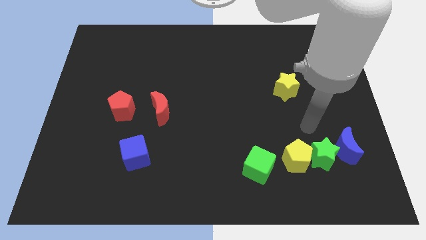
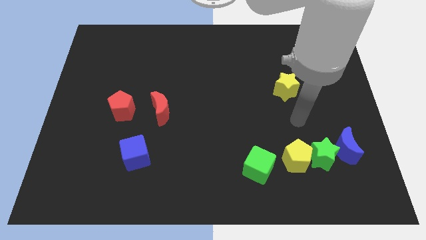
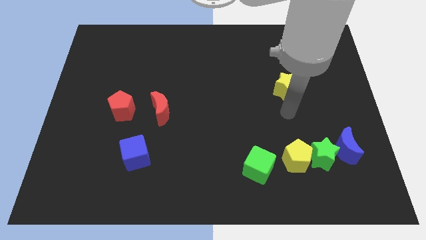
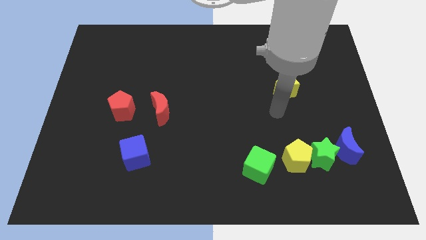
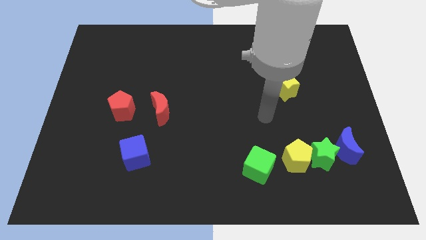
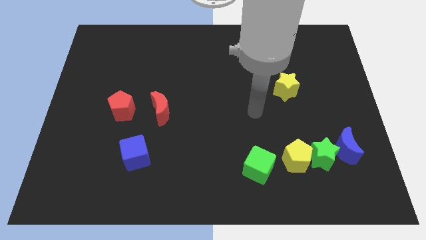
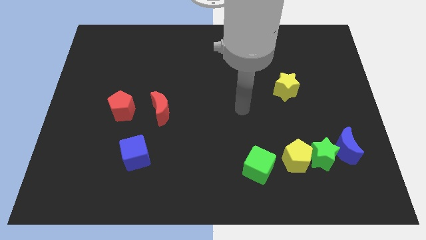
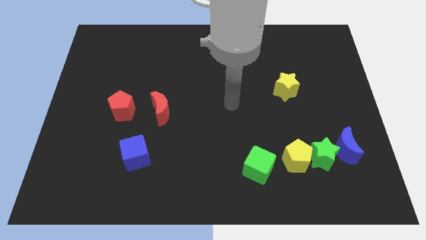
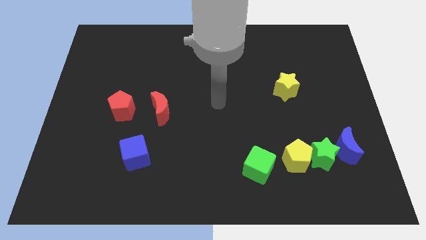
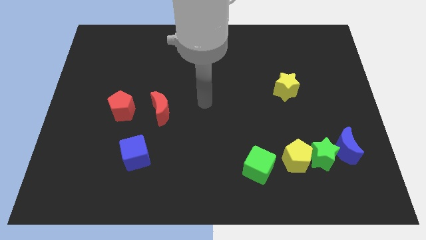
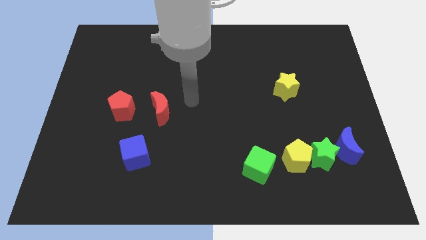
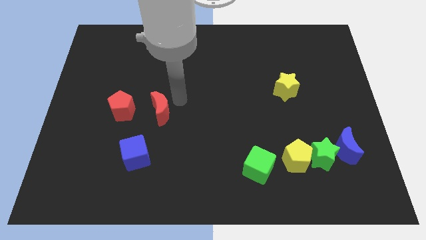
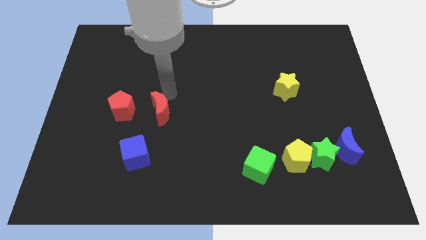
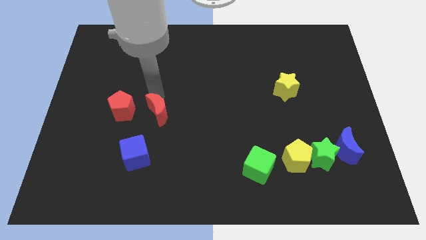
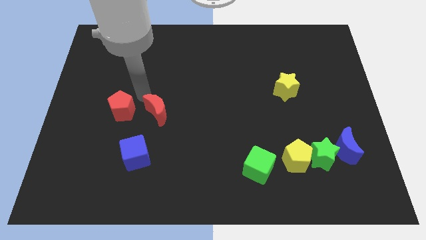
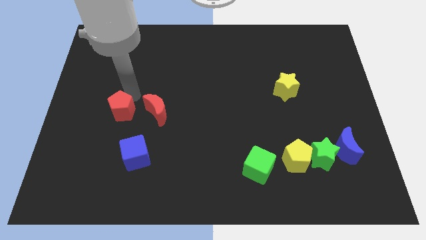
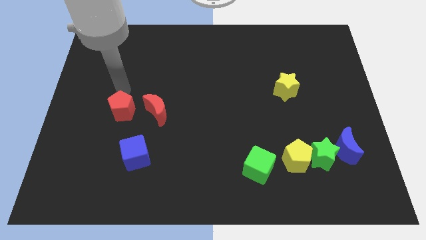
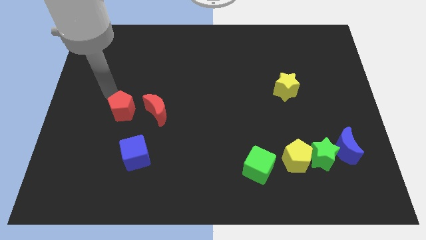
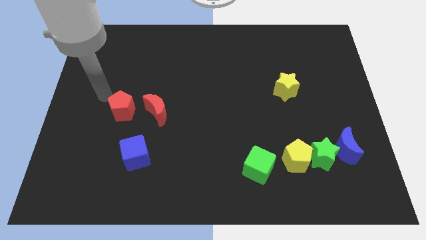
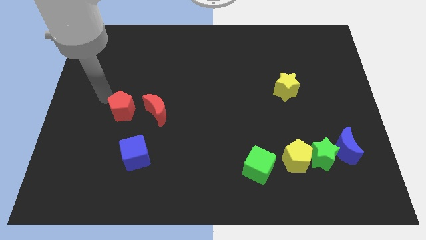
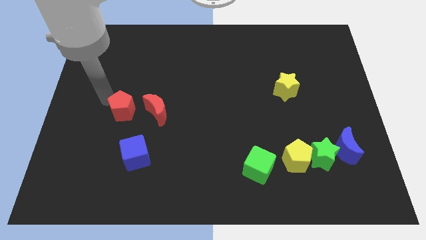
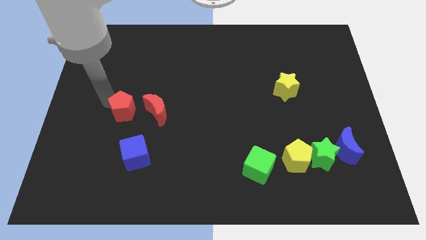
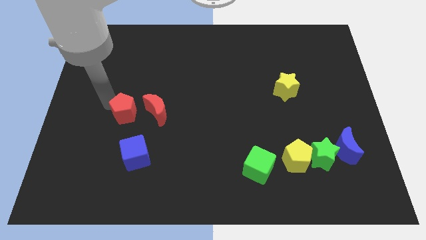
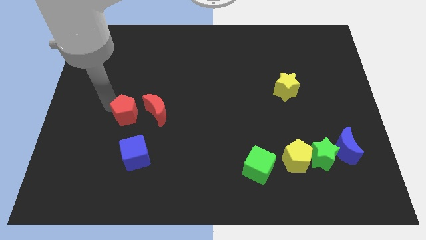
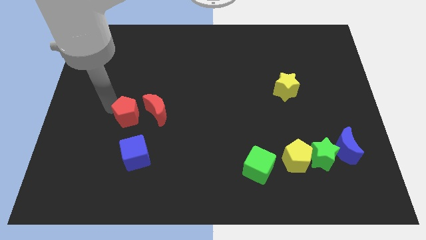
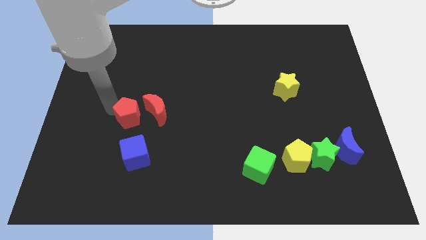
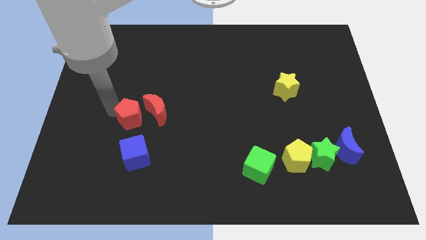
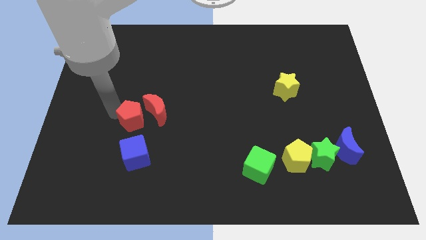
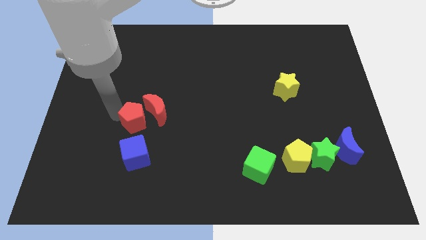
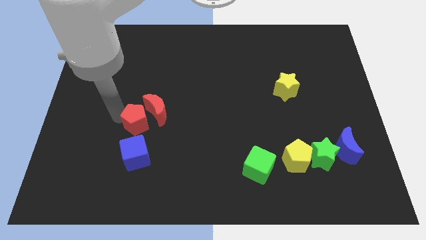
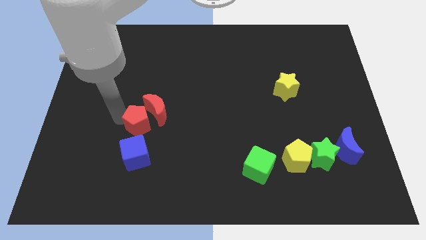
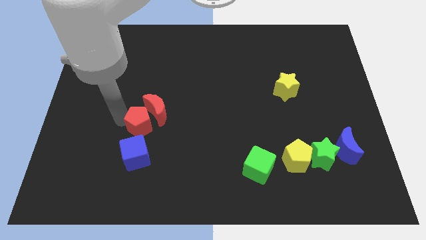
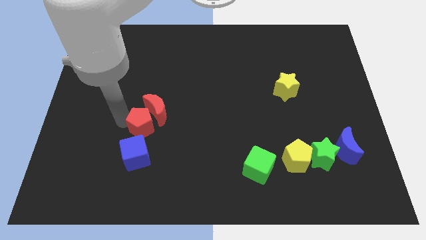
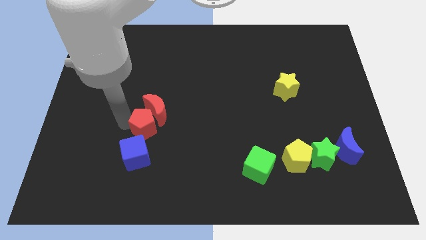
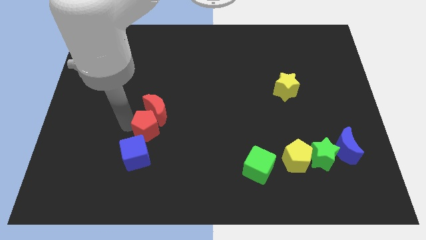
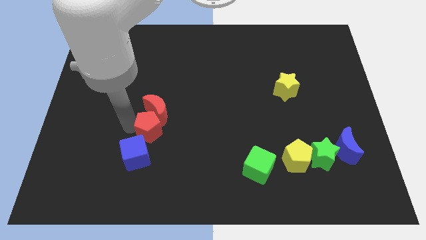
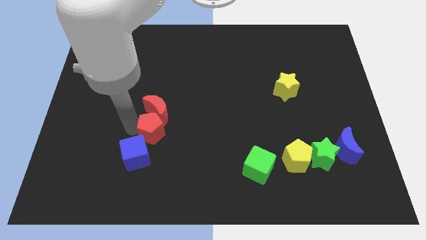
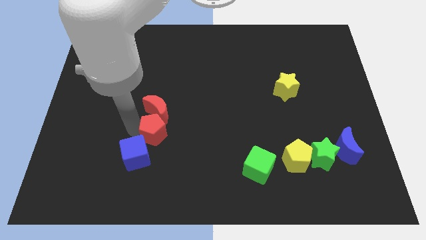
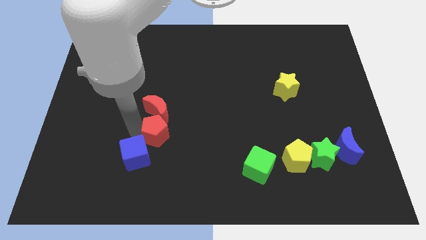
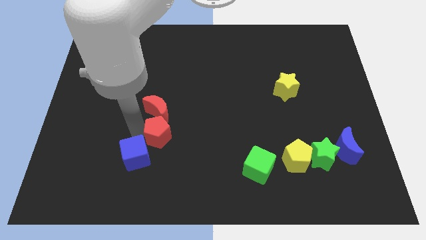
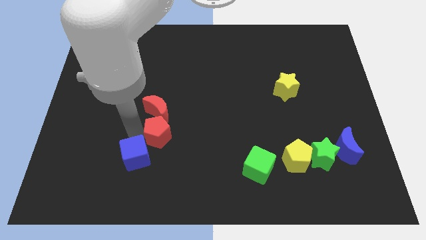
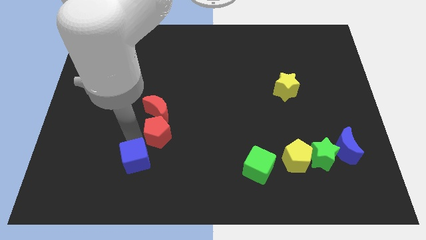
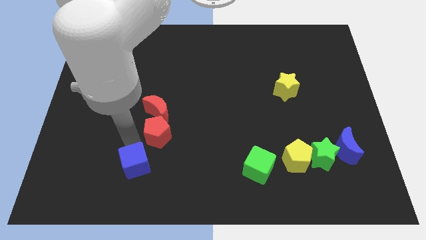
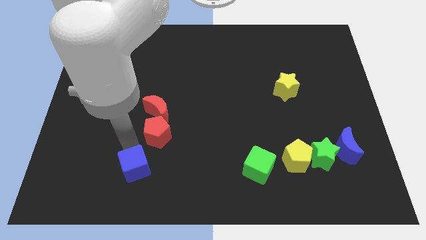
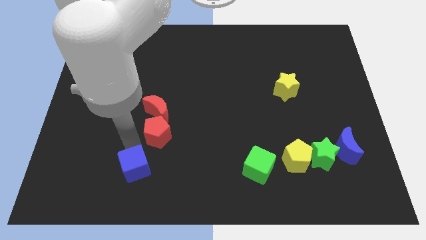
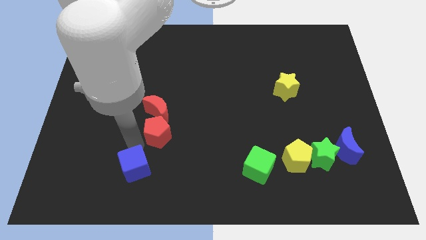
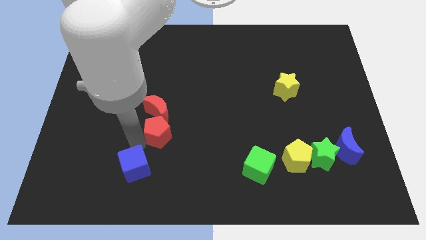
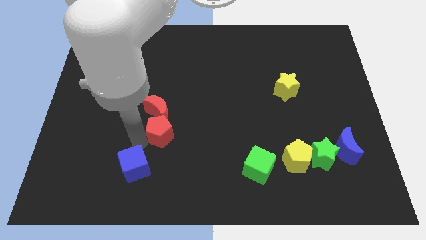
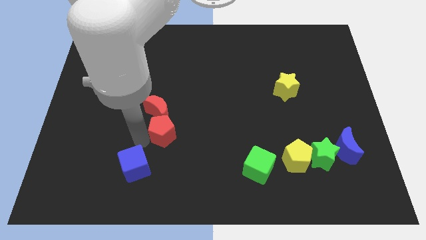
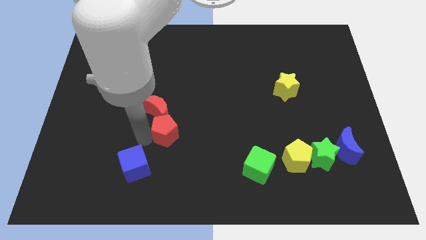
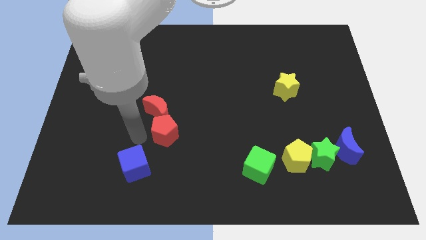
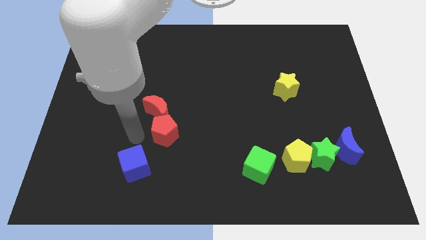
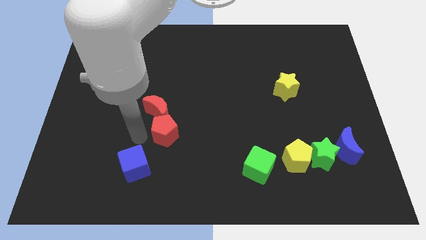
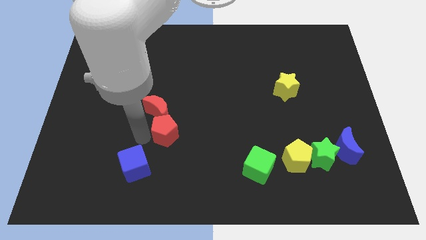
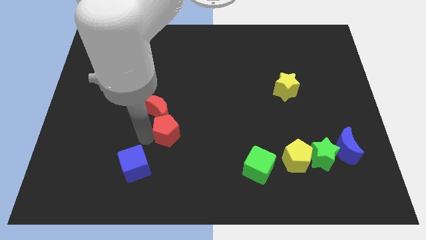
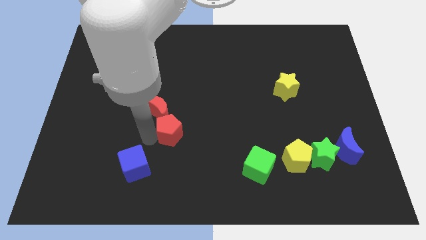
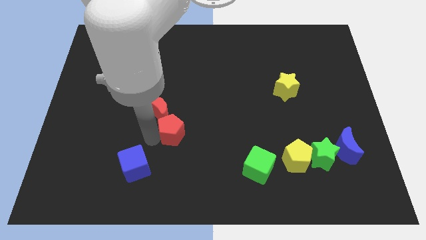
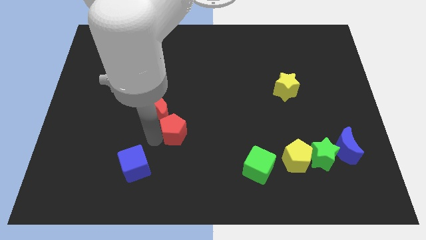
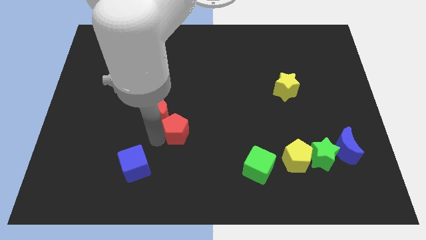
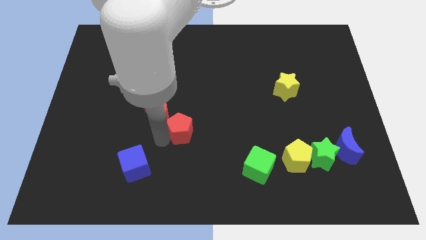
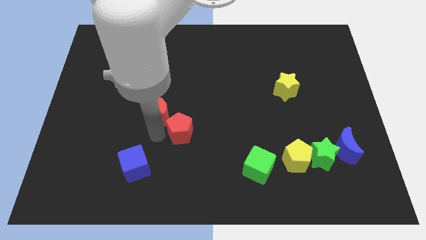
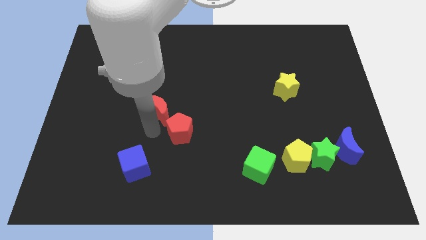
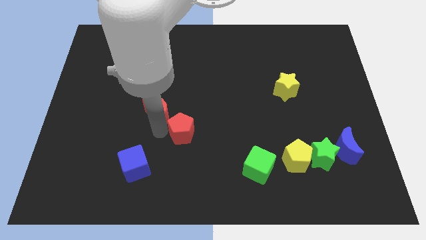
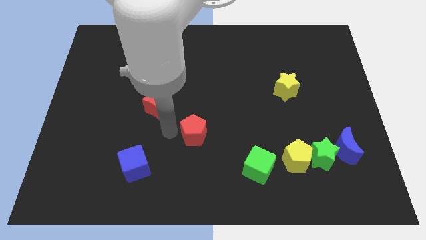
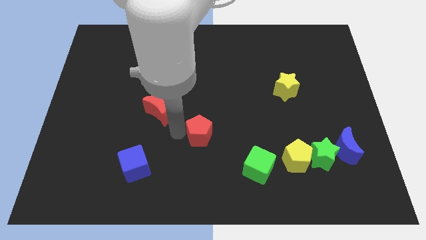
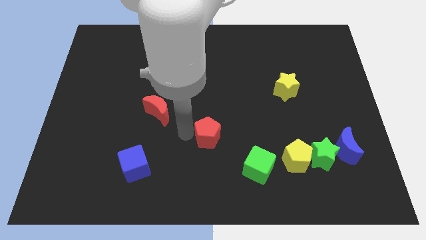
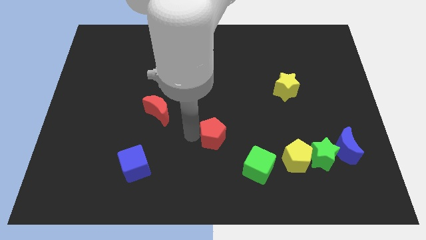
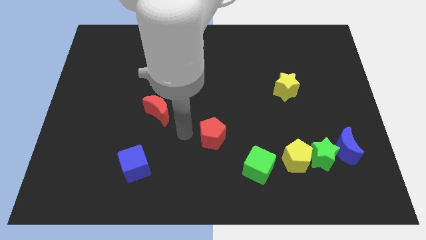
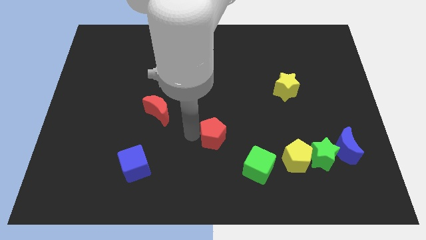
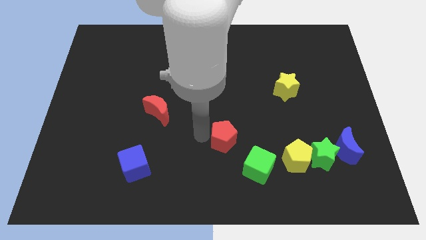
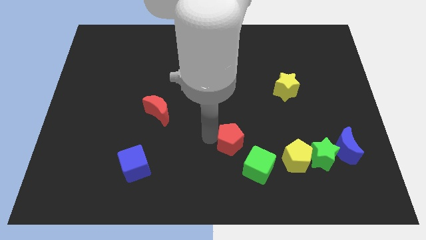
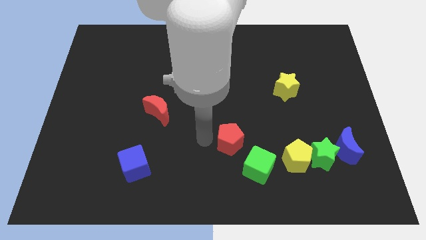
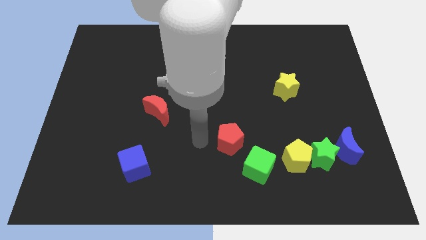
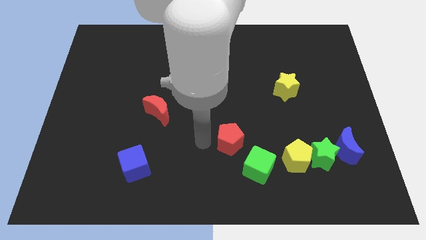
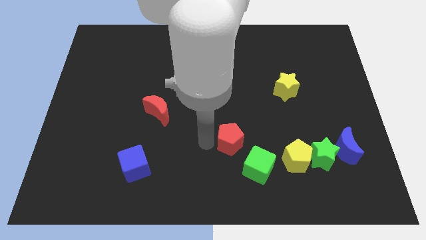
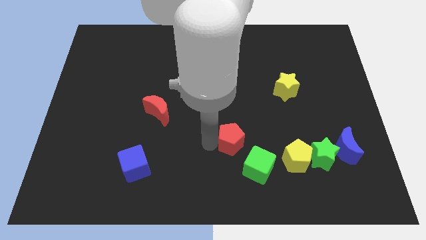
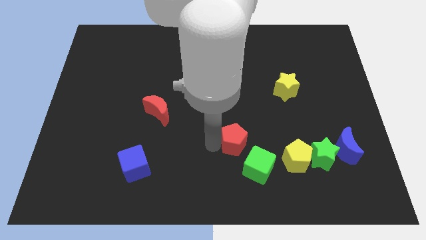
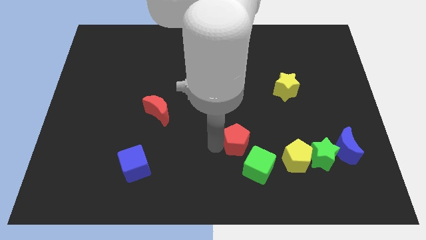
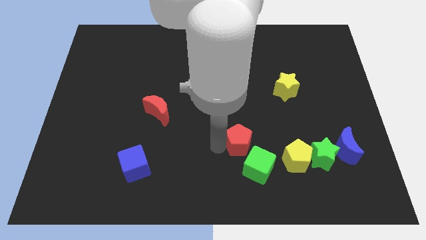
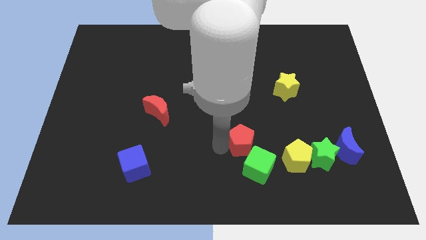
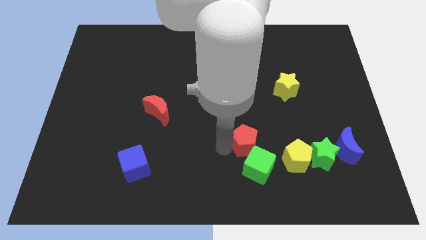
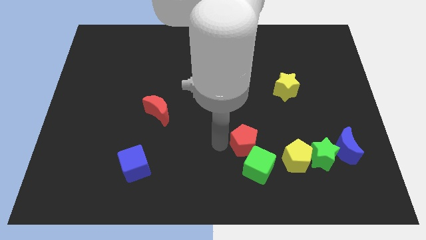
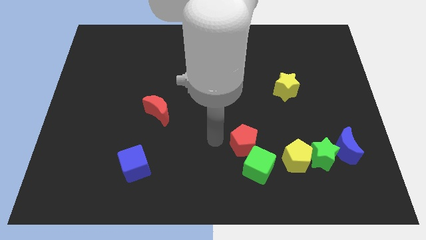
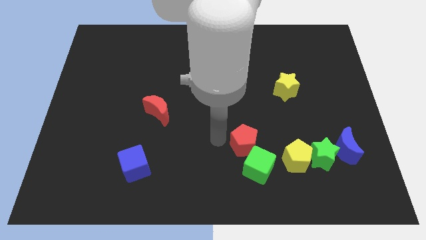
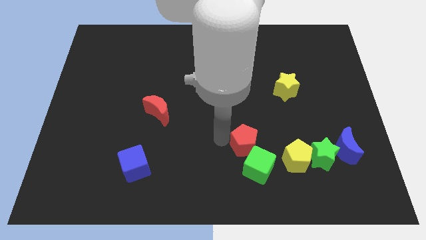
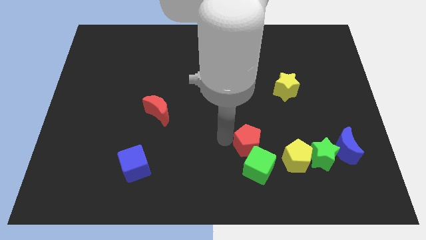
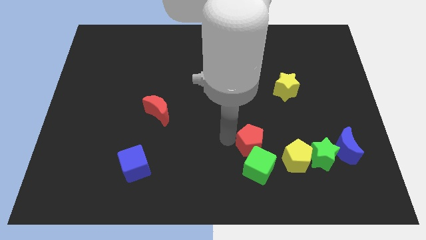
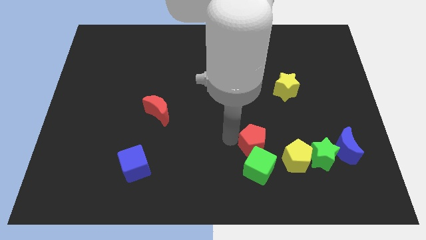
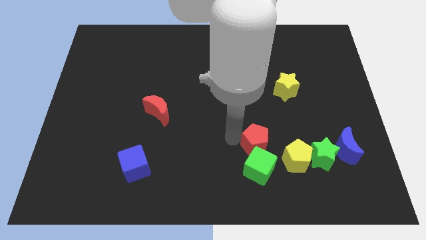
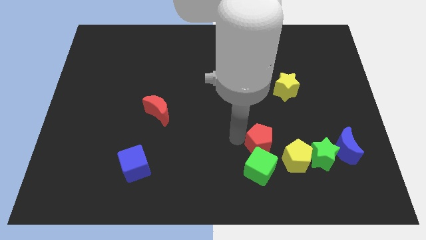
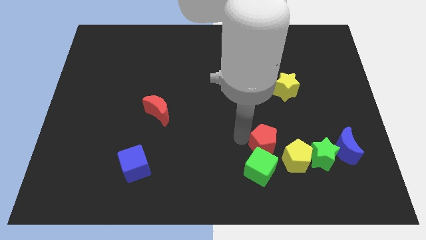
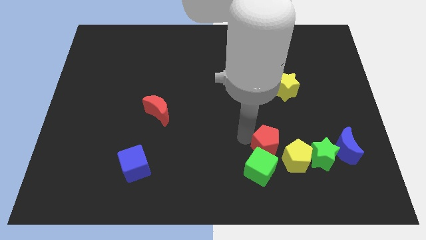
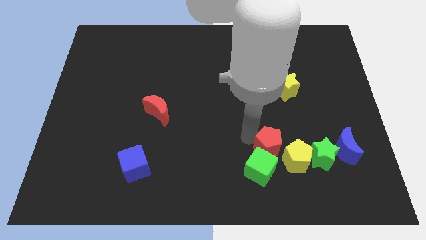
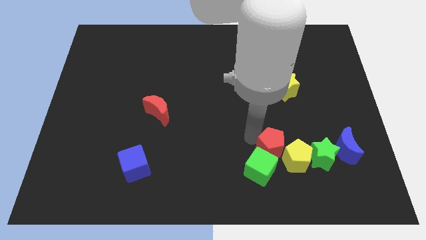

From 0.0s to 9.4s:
push the red pentagon towards the yellow pentagon
